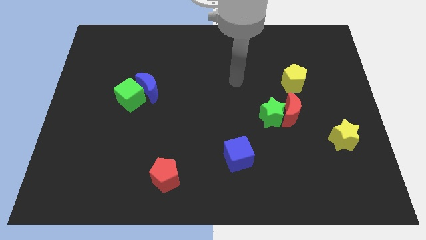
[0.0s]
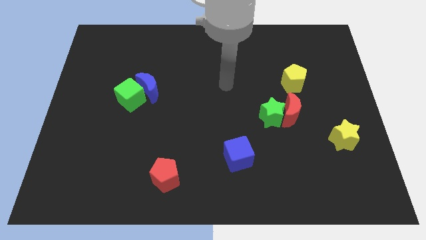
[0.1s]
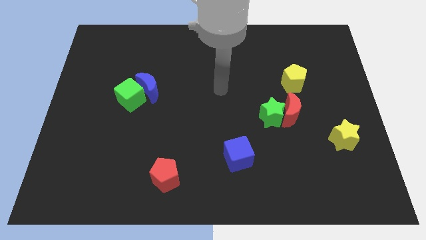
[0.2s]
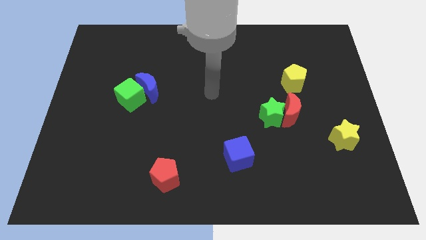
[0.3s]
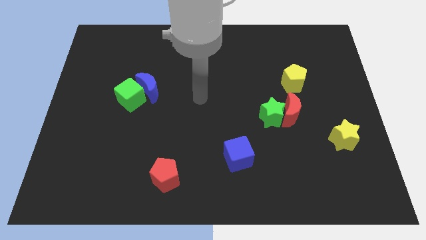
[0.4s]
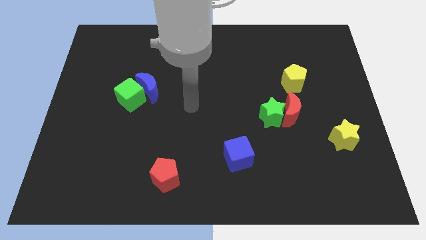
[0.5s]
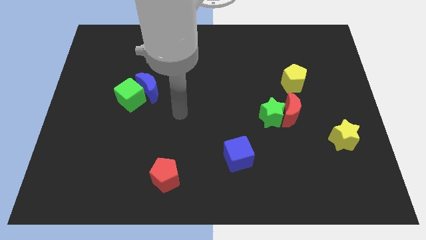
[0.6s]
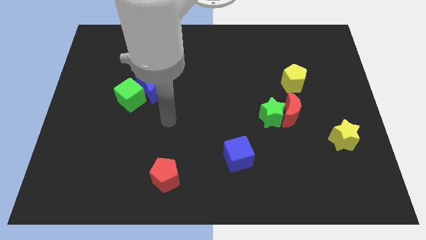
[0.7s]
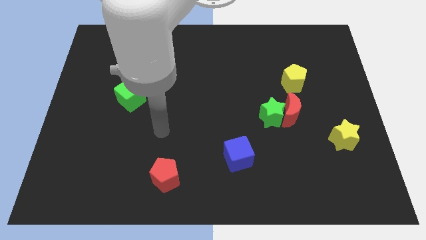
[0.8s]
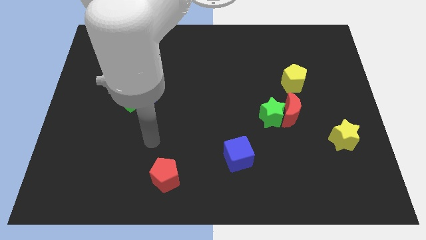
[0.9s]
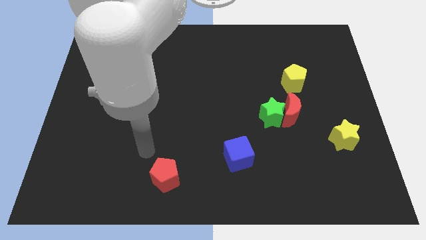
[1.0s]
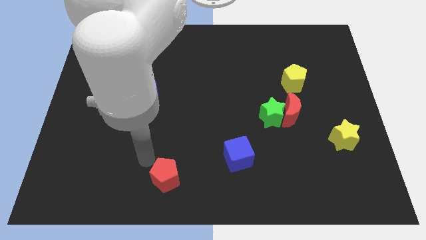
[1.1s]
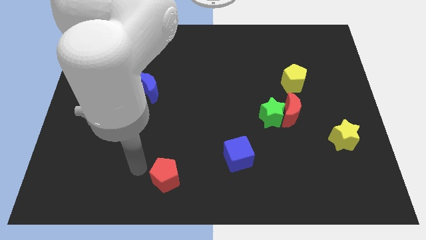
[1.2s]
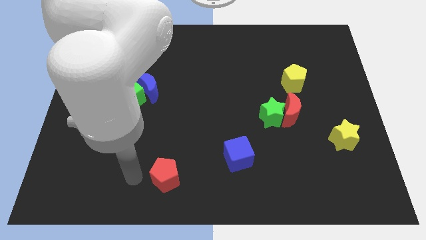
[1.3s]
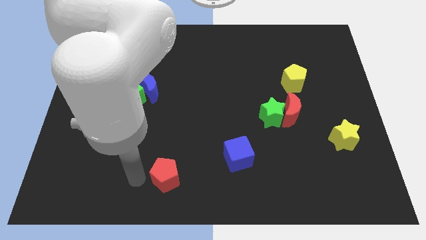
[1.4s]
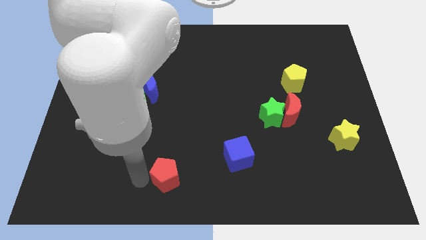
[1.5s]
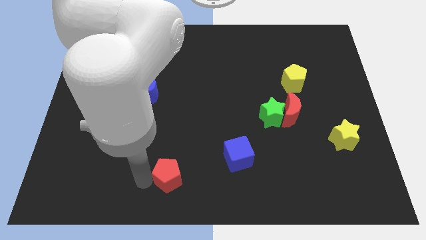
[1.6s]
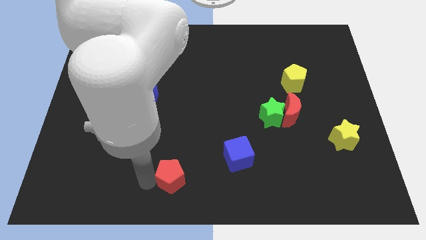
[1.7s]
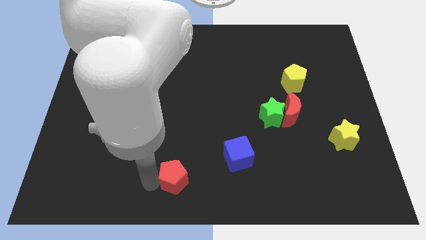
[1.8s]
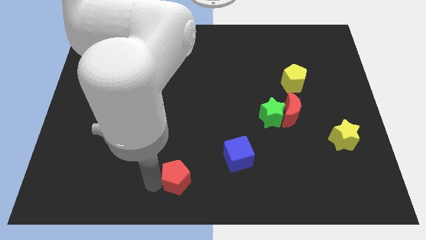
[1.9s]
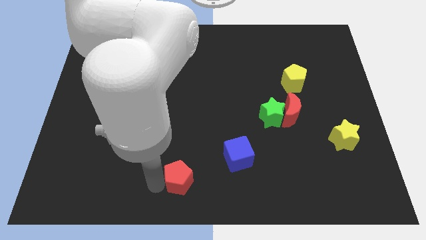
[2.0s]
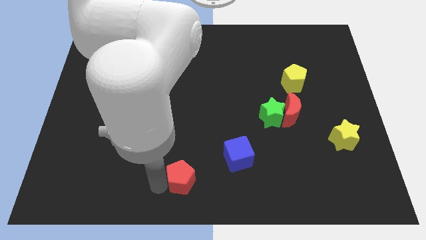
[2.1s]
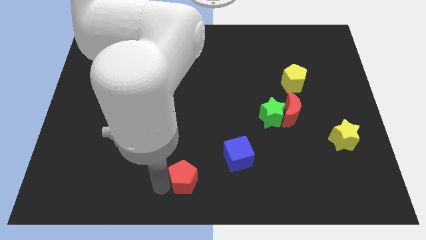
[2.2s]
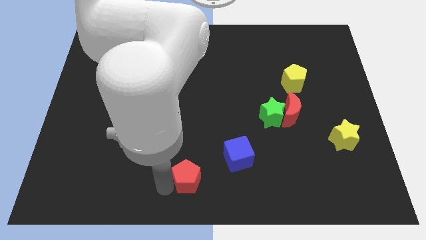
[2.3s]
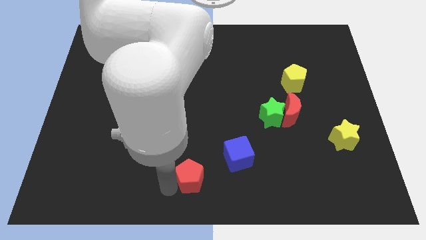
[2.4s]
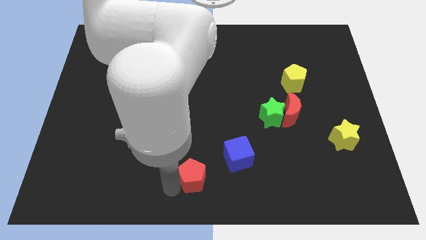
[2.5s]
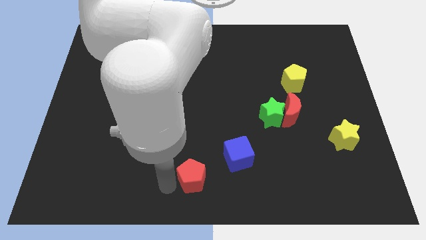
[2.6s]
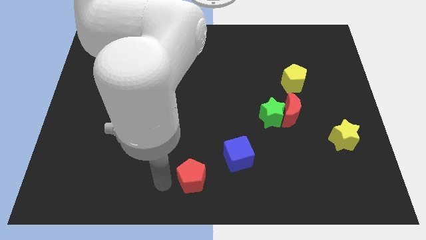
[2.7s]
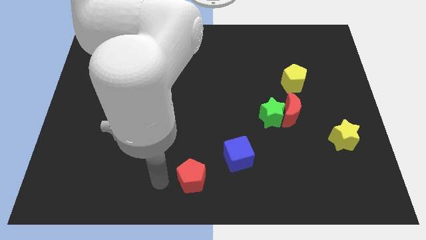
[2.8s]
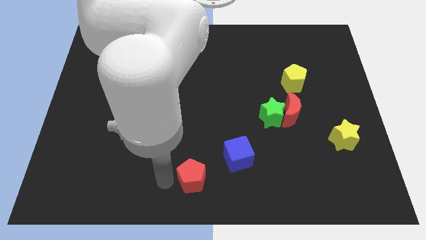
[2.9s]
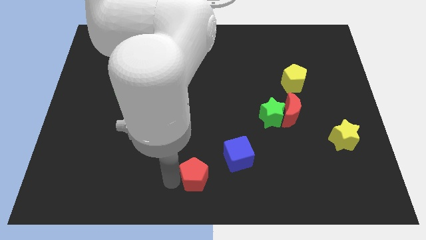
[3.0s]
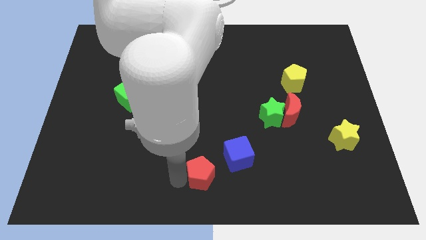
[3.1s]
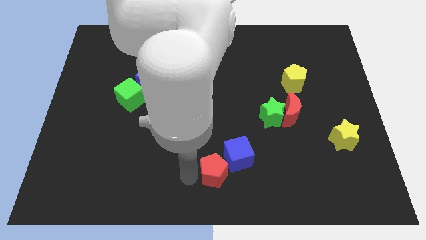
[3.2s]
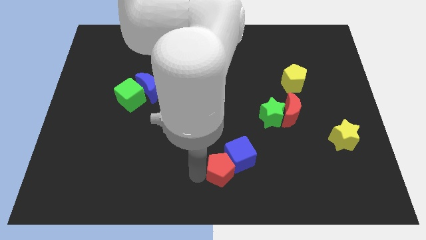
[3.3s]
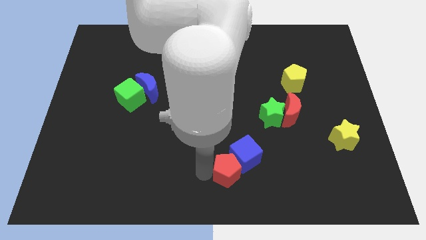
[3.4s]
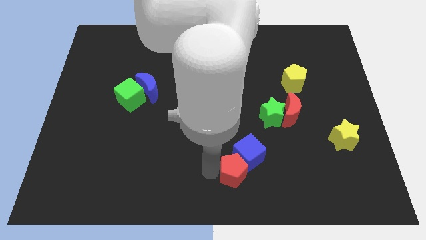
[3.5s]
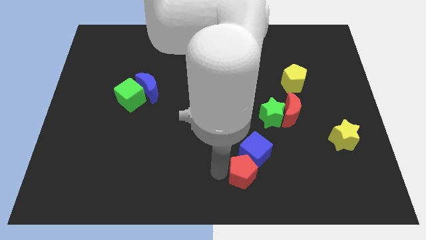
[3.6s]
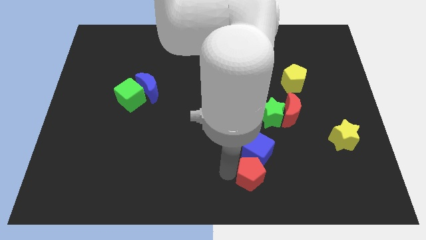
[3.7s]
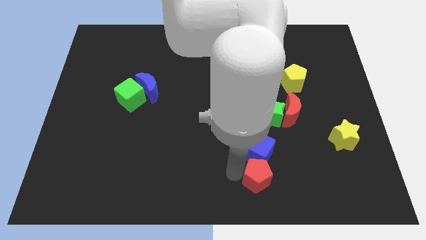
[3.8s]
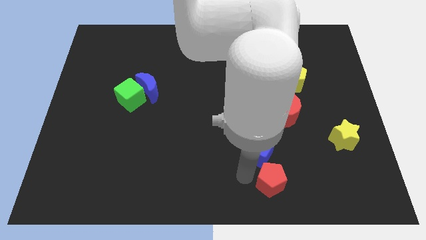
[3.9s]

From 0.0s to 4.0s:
move the red pentagon right

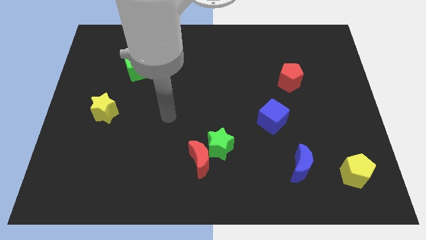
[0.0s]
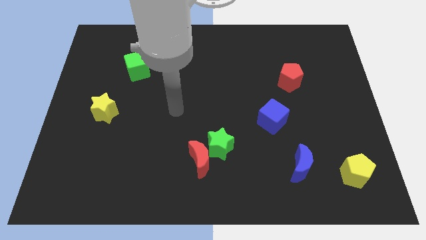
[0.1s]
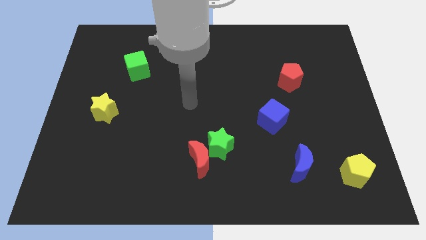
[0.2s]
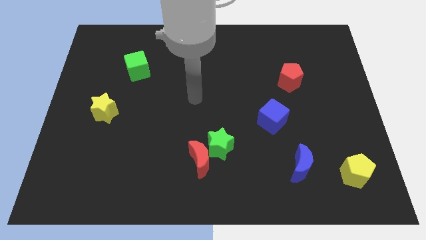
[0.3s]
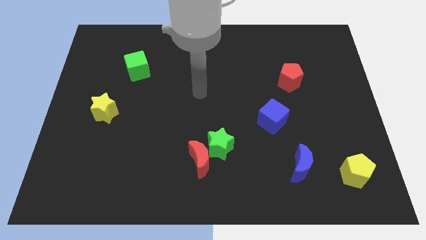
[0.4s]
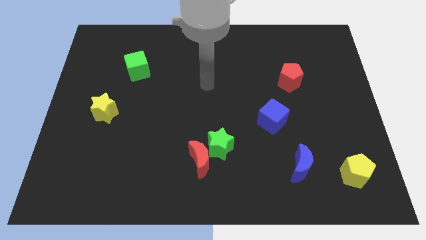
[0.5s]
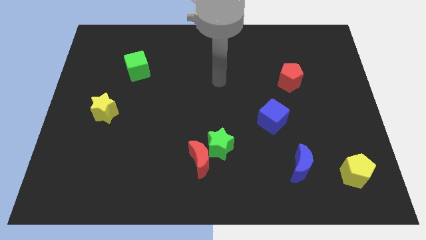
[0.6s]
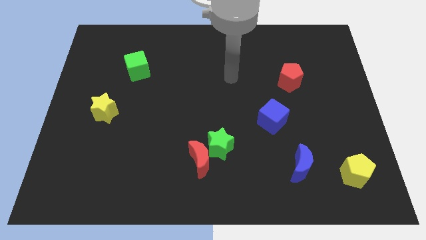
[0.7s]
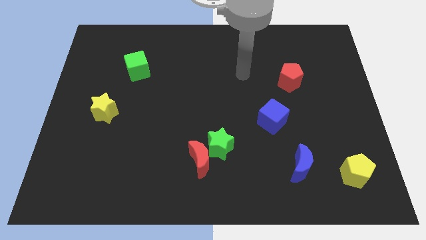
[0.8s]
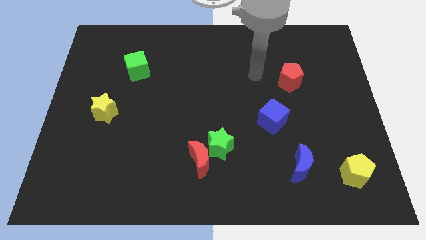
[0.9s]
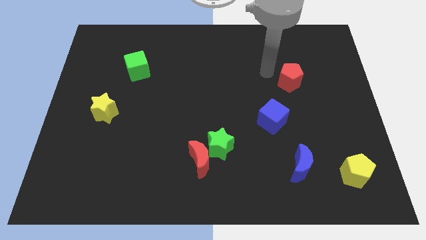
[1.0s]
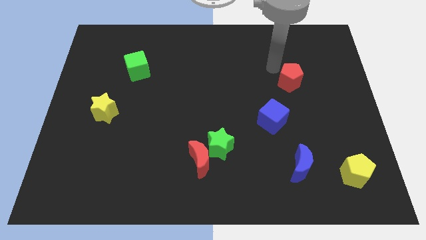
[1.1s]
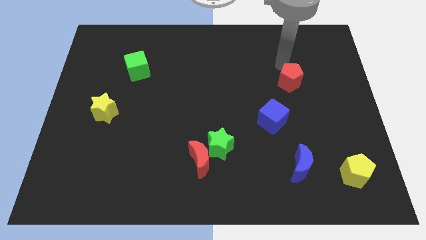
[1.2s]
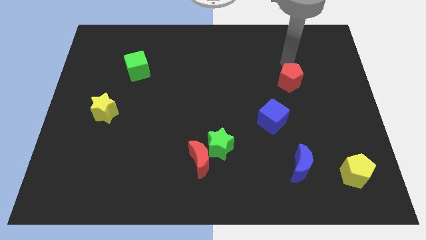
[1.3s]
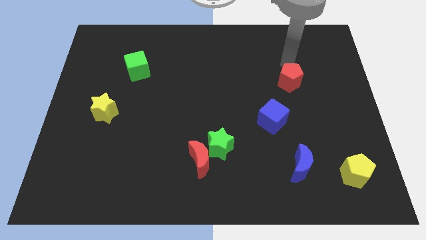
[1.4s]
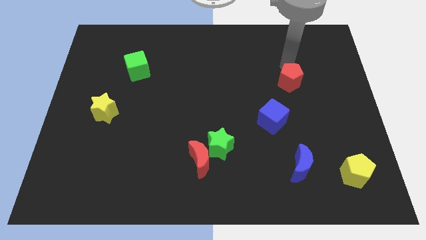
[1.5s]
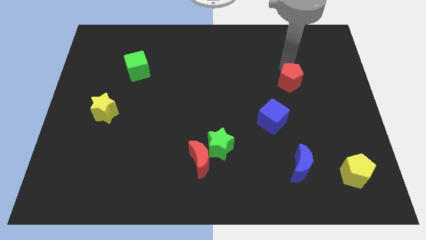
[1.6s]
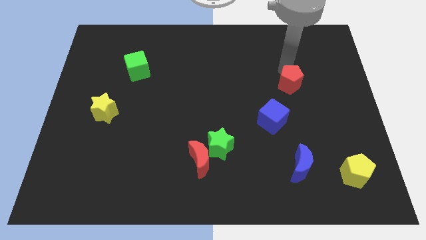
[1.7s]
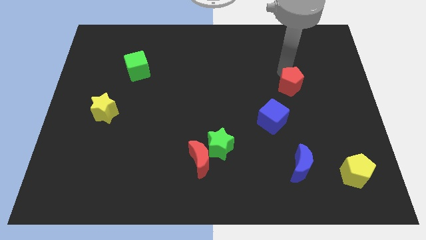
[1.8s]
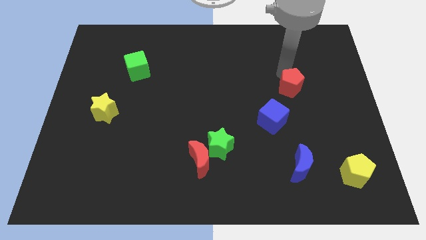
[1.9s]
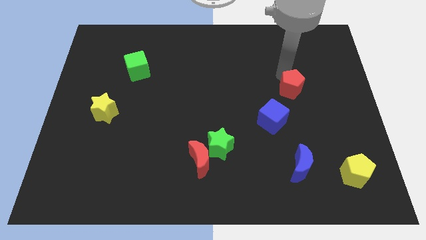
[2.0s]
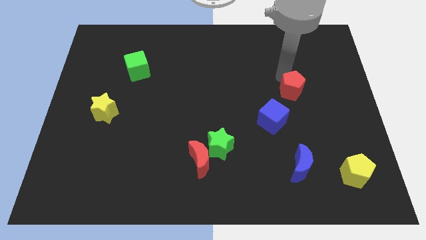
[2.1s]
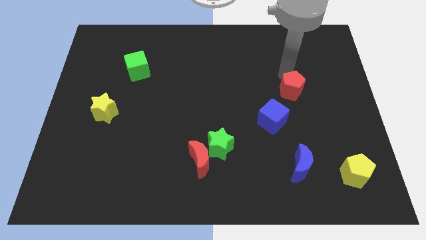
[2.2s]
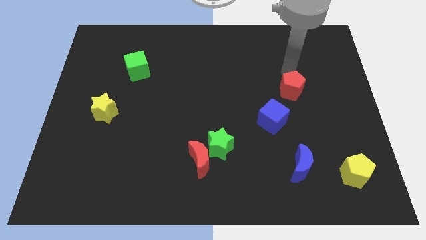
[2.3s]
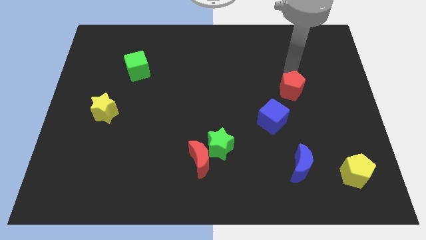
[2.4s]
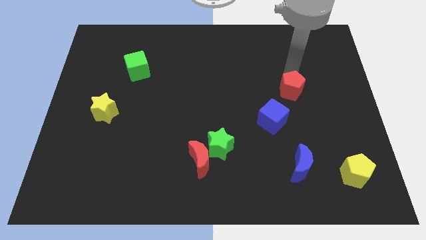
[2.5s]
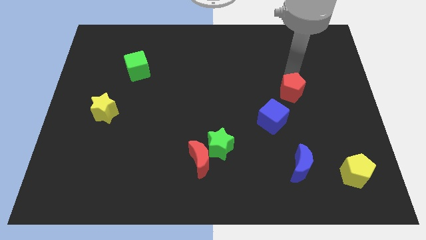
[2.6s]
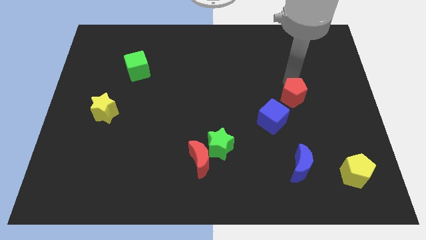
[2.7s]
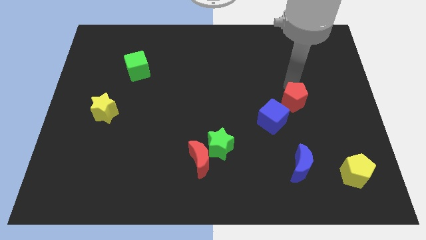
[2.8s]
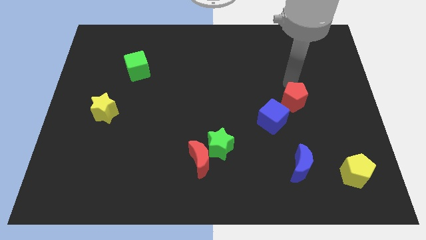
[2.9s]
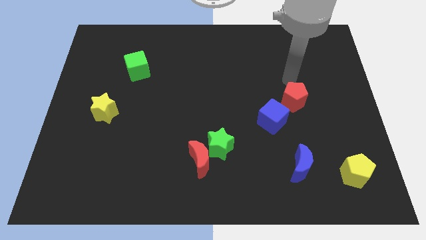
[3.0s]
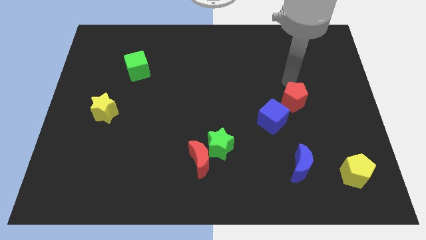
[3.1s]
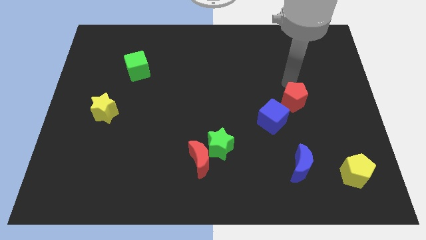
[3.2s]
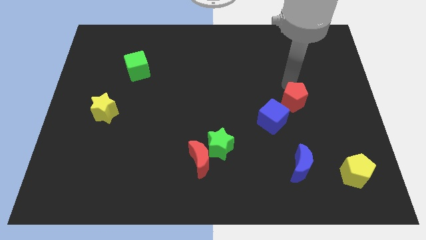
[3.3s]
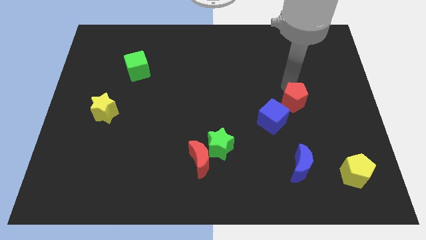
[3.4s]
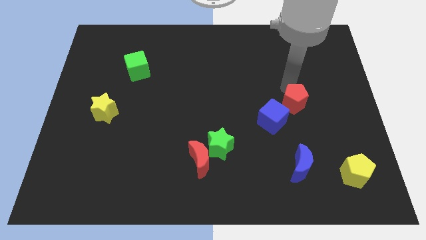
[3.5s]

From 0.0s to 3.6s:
push the red pentagon somewhat down

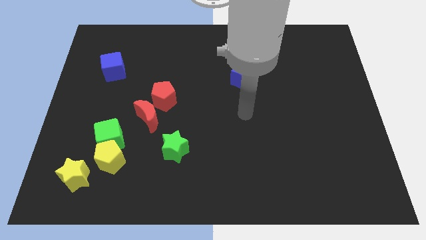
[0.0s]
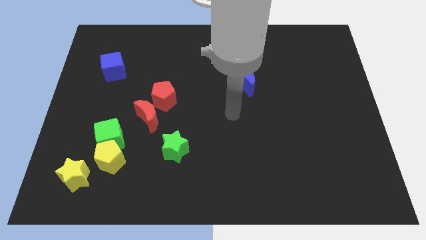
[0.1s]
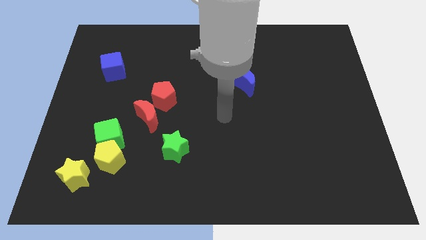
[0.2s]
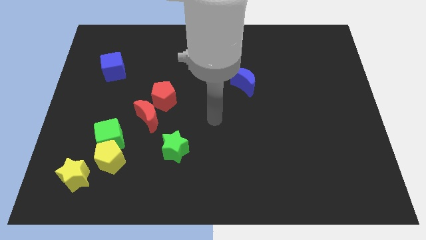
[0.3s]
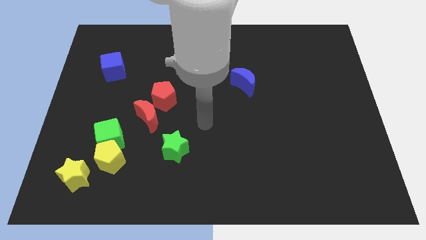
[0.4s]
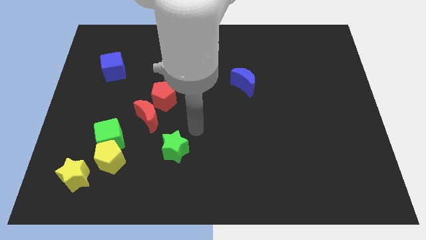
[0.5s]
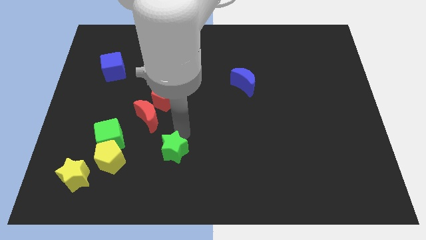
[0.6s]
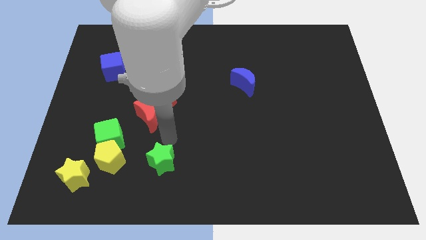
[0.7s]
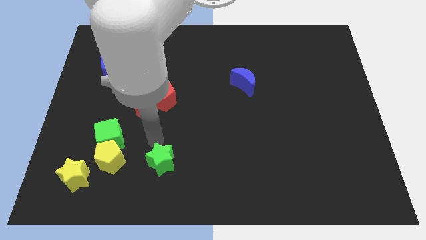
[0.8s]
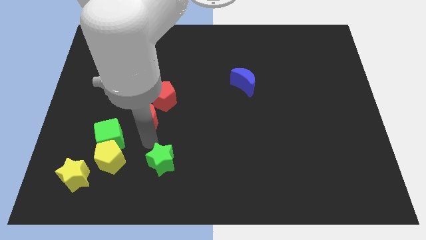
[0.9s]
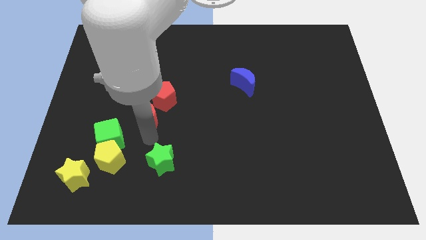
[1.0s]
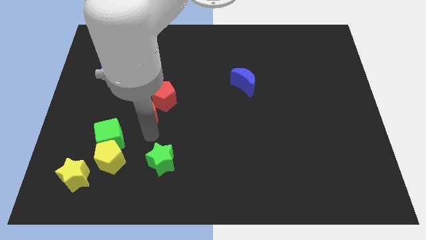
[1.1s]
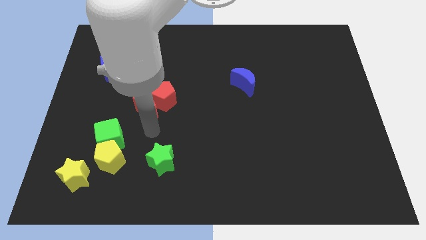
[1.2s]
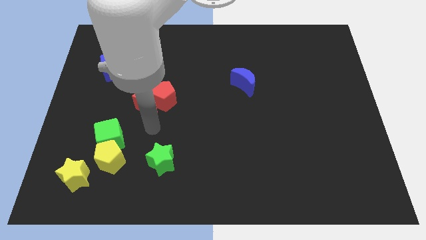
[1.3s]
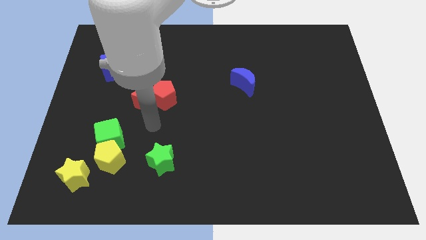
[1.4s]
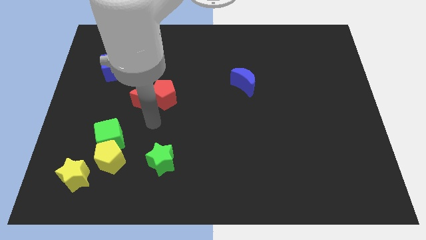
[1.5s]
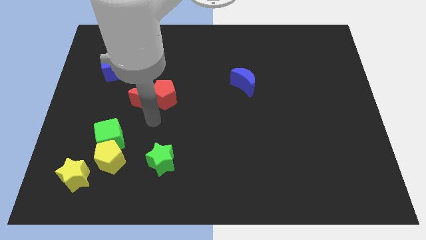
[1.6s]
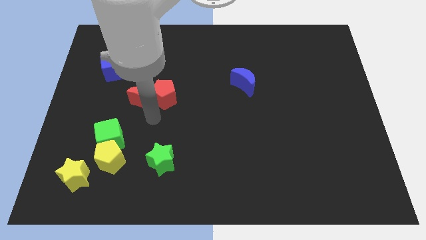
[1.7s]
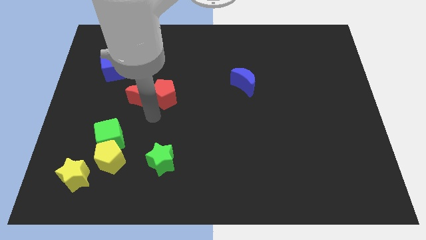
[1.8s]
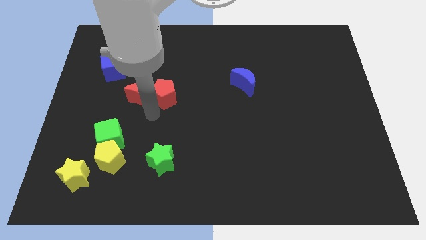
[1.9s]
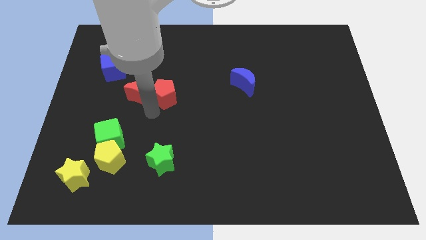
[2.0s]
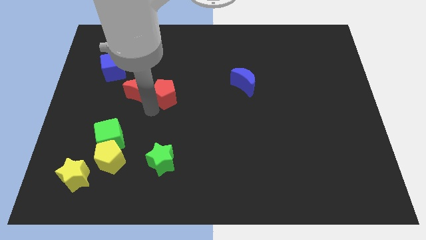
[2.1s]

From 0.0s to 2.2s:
slide the red moon upwards a bit
